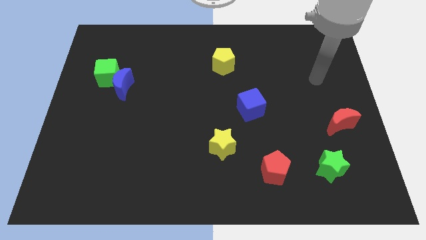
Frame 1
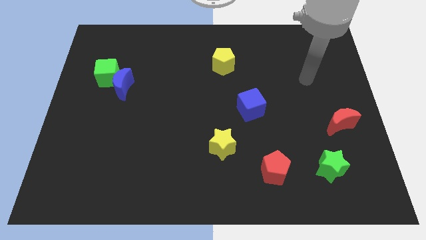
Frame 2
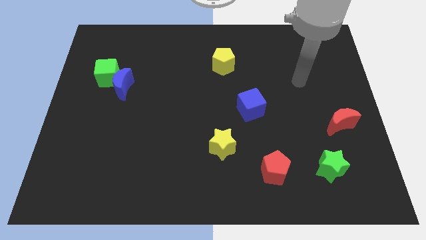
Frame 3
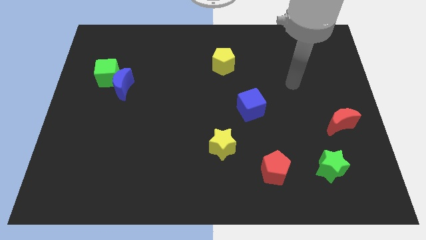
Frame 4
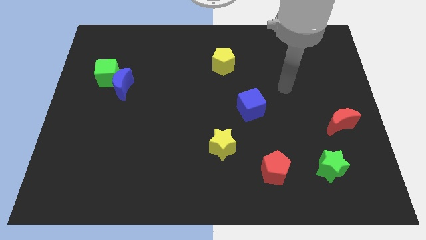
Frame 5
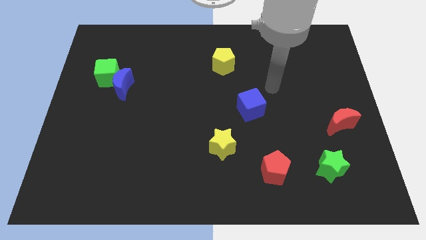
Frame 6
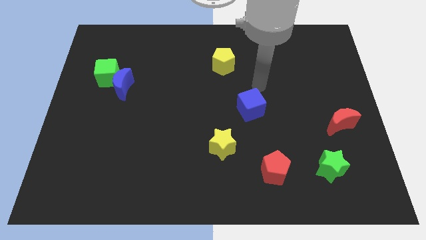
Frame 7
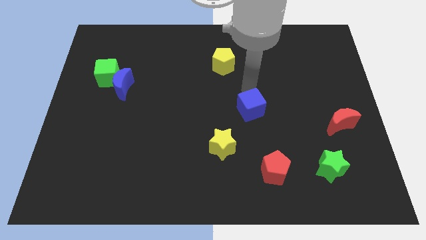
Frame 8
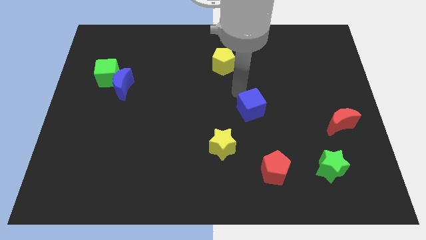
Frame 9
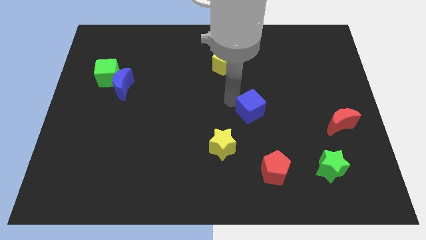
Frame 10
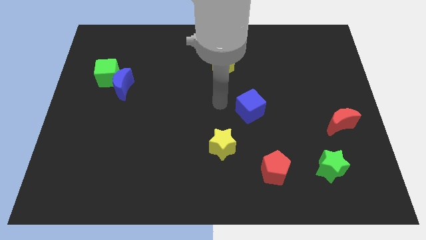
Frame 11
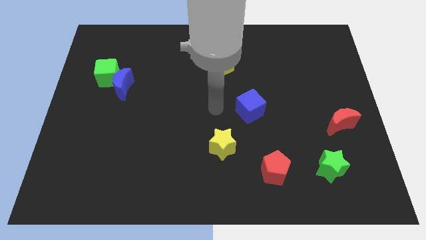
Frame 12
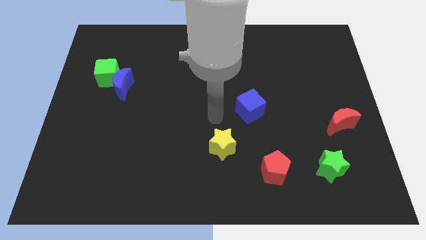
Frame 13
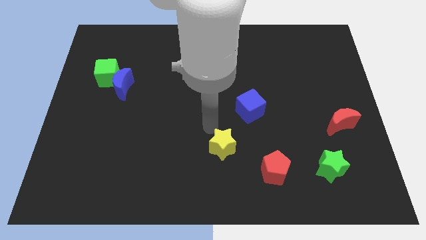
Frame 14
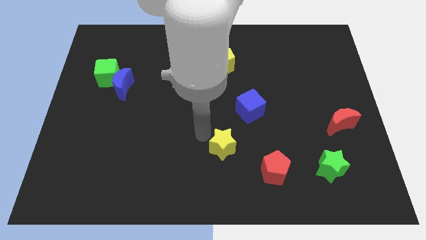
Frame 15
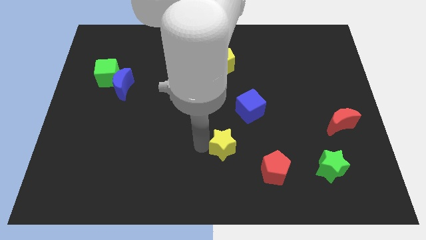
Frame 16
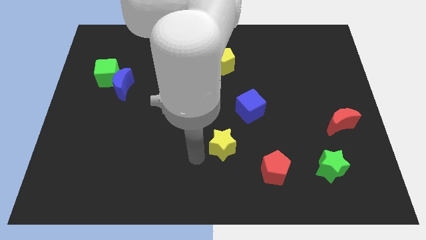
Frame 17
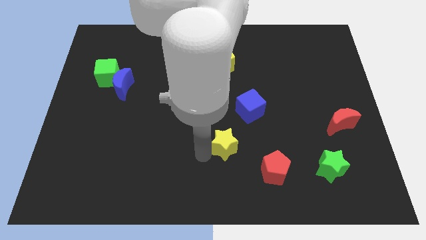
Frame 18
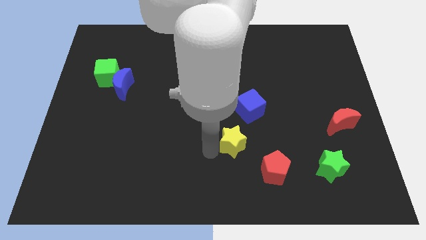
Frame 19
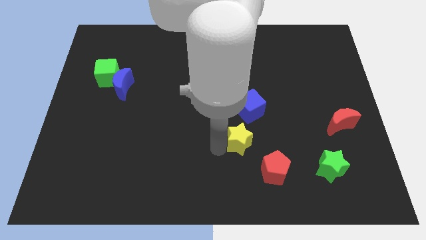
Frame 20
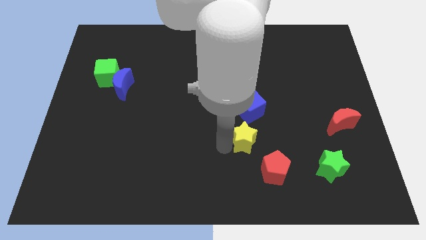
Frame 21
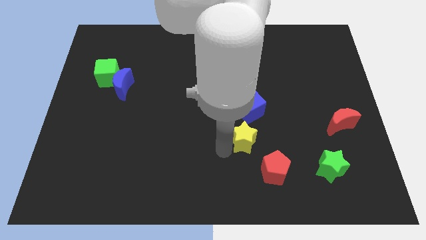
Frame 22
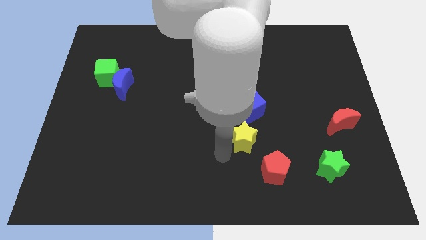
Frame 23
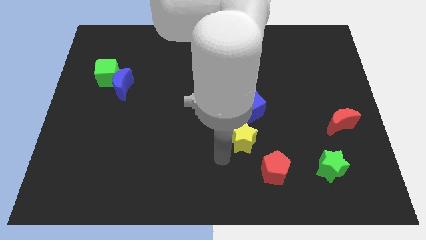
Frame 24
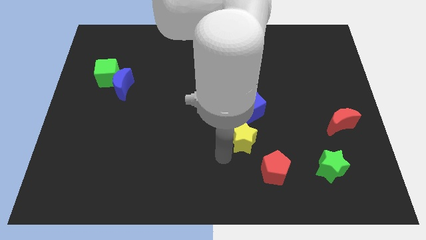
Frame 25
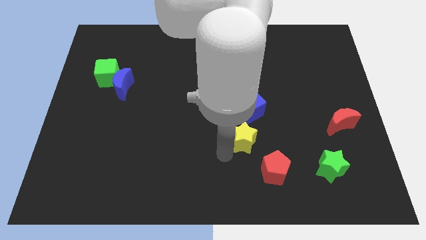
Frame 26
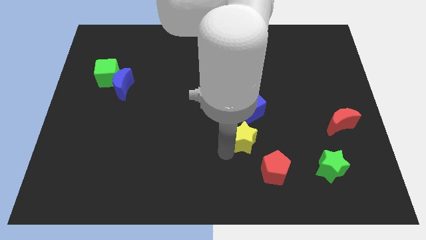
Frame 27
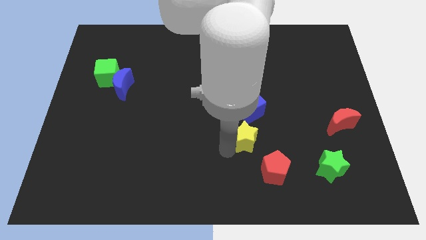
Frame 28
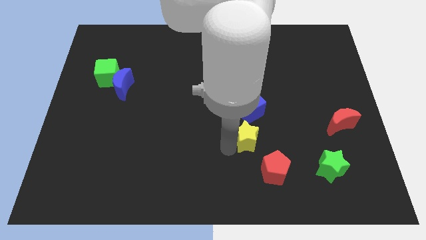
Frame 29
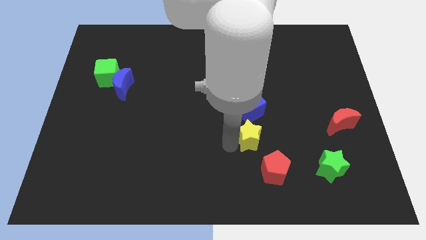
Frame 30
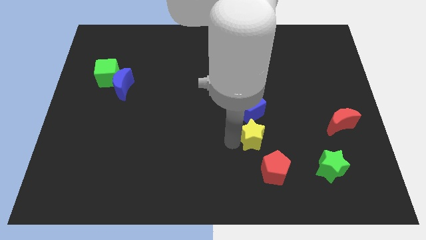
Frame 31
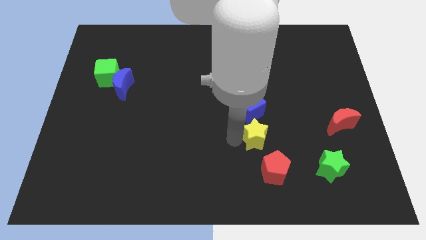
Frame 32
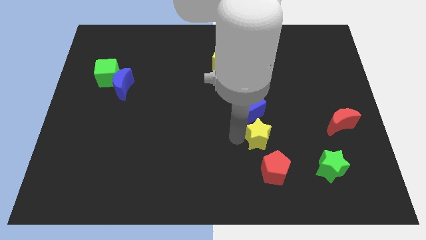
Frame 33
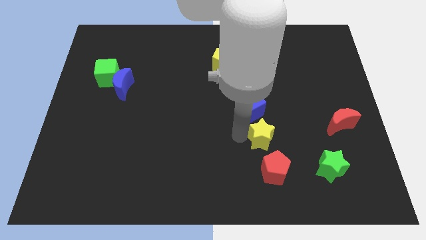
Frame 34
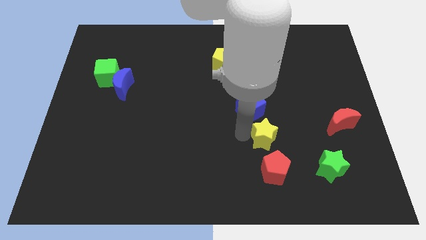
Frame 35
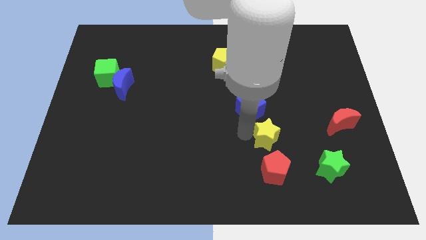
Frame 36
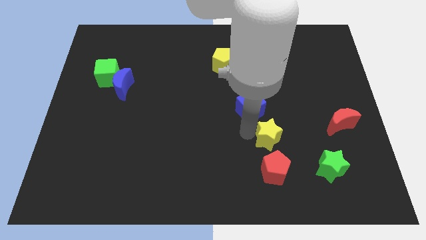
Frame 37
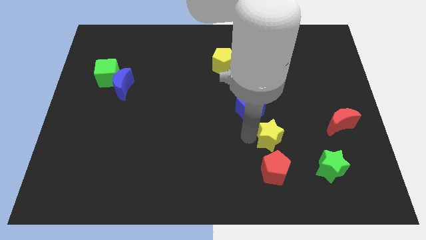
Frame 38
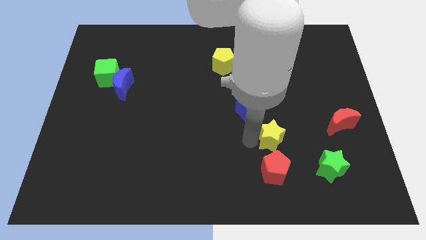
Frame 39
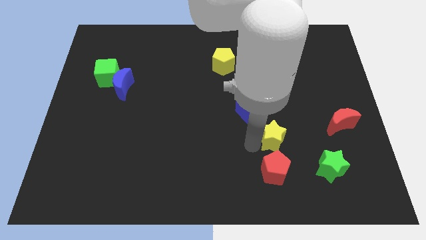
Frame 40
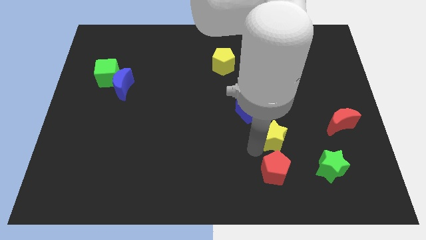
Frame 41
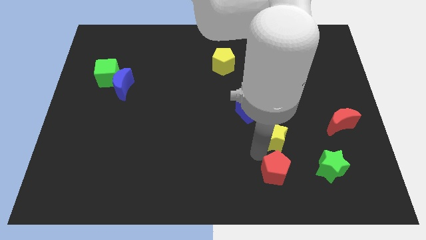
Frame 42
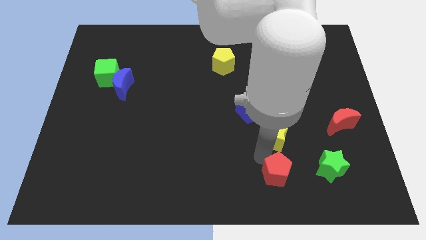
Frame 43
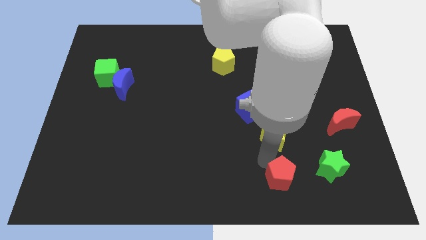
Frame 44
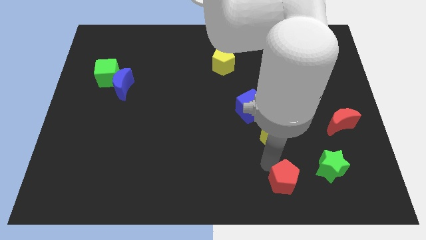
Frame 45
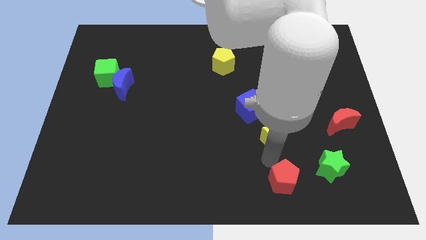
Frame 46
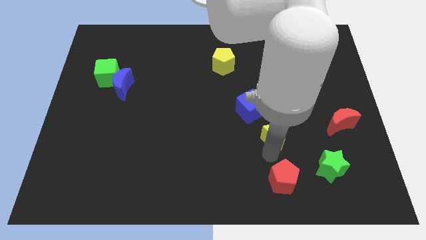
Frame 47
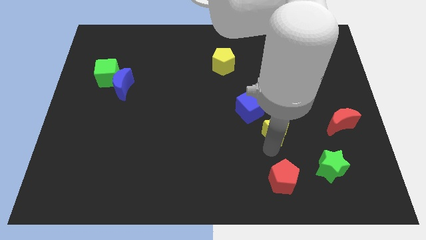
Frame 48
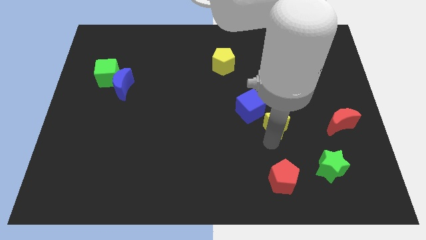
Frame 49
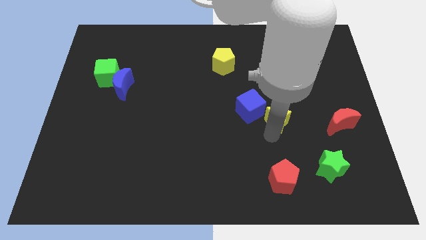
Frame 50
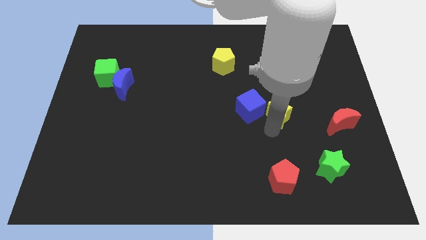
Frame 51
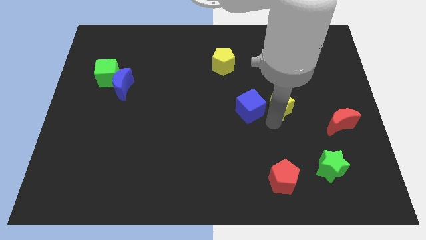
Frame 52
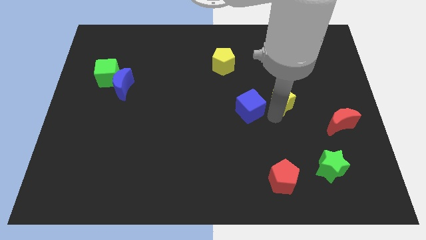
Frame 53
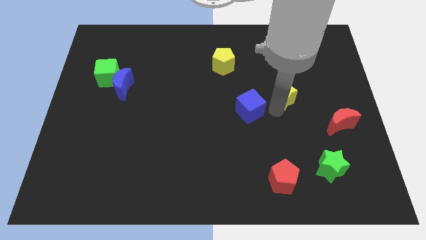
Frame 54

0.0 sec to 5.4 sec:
move the yellow star up and to the right

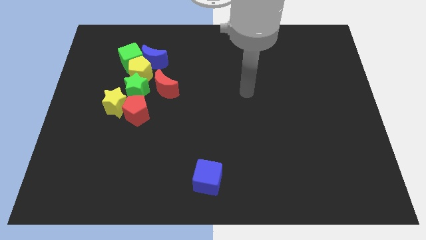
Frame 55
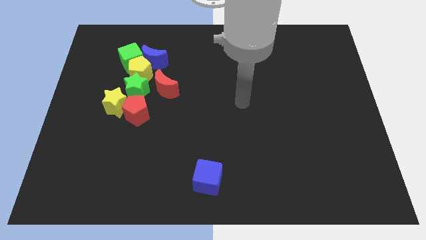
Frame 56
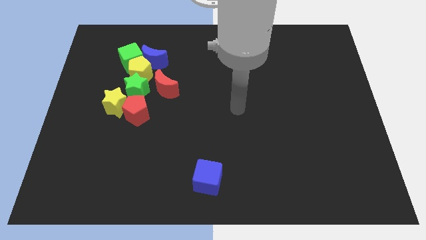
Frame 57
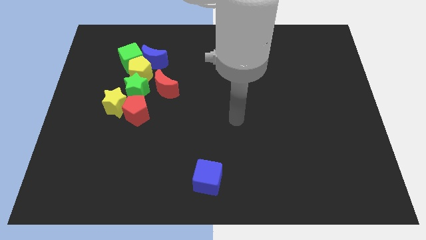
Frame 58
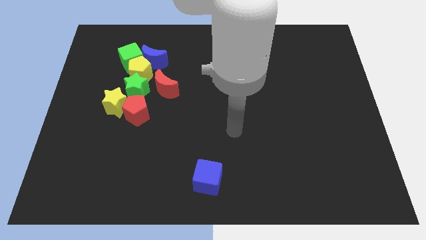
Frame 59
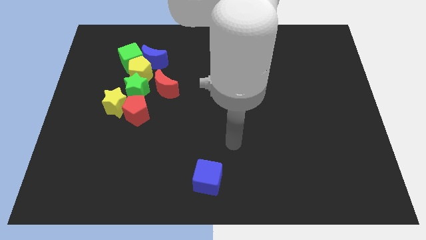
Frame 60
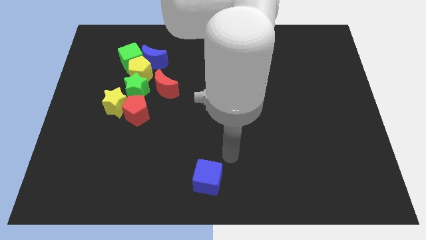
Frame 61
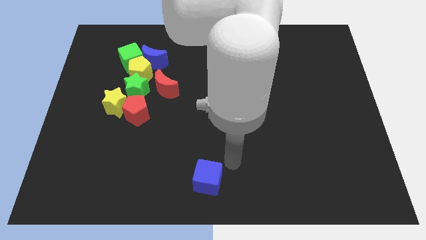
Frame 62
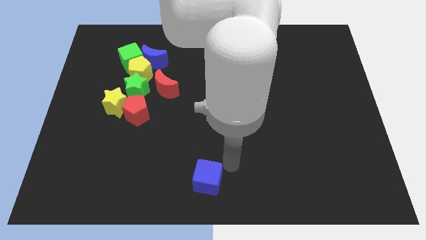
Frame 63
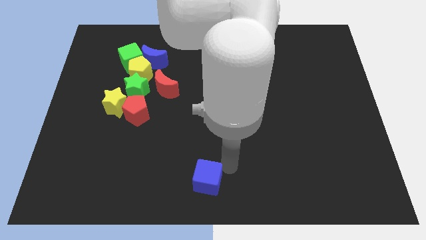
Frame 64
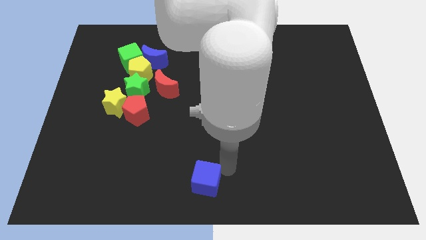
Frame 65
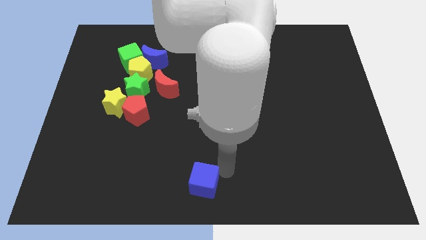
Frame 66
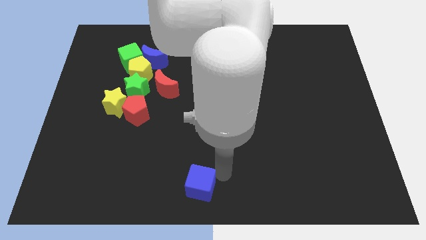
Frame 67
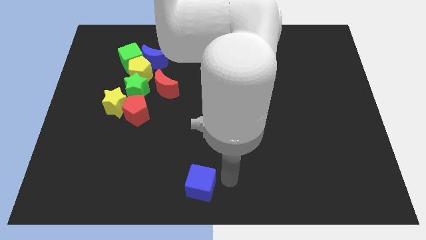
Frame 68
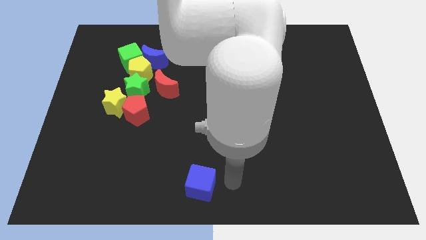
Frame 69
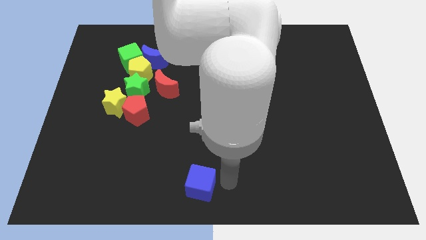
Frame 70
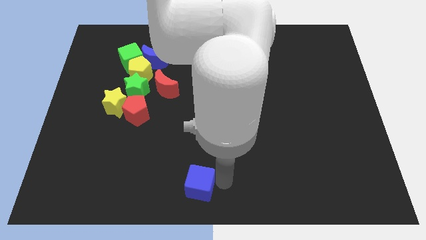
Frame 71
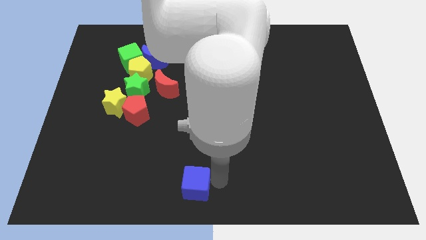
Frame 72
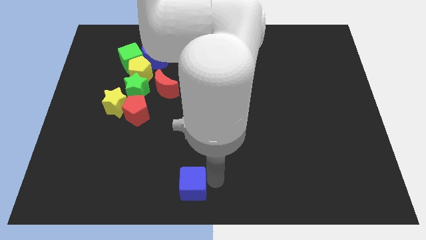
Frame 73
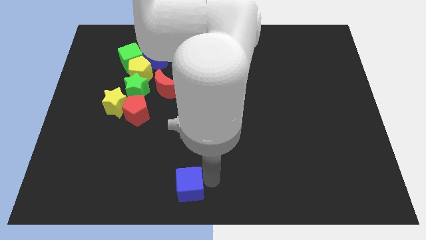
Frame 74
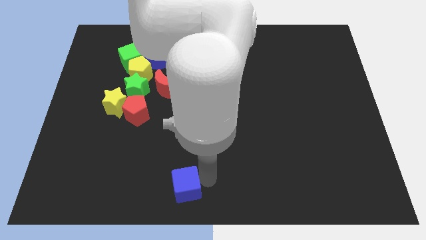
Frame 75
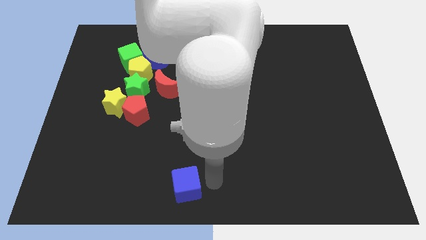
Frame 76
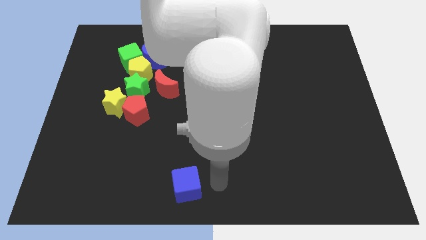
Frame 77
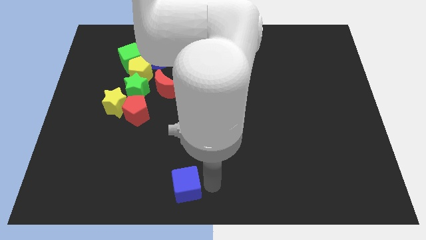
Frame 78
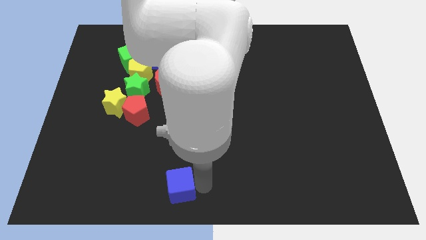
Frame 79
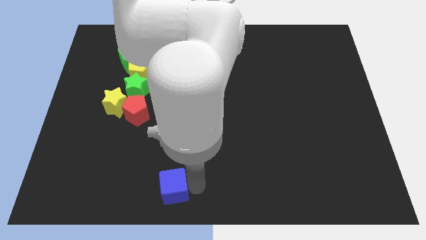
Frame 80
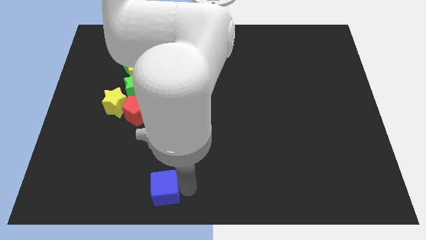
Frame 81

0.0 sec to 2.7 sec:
slightly slide the blue cube left
